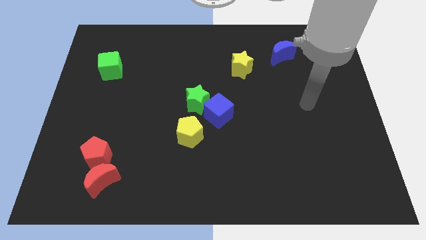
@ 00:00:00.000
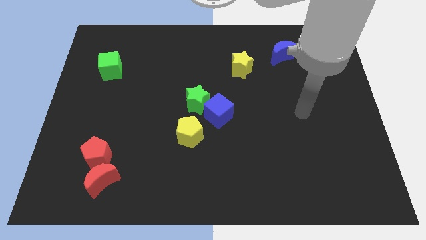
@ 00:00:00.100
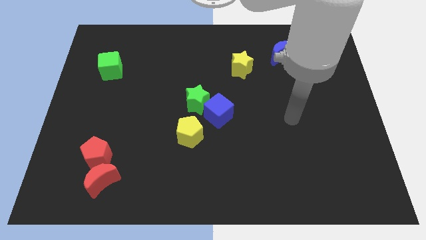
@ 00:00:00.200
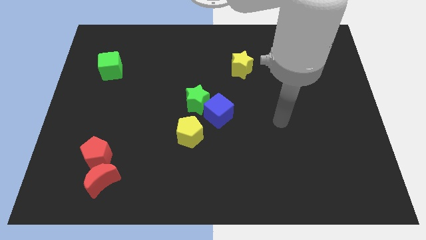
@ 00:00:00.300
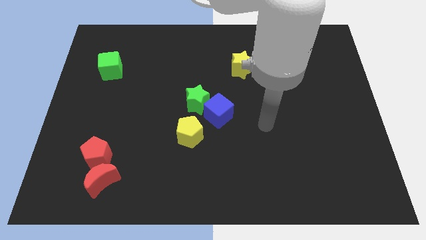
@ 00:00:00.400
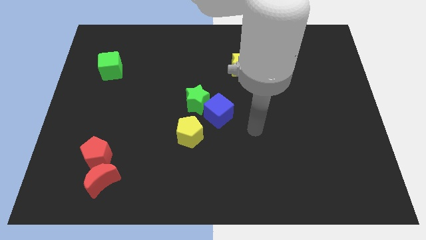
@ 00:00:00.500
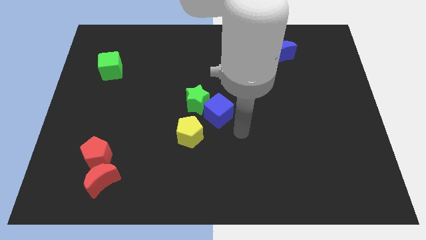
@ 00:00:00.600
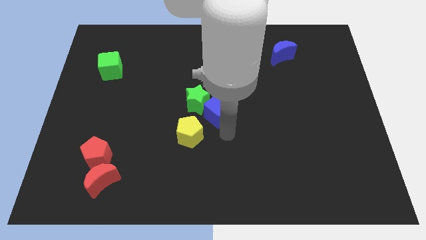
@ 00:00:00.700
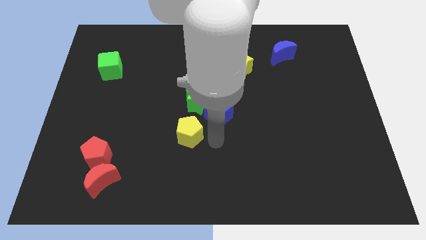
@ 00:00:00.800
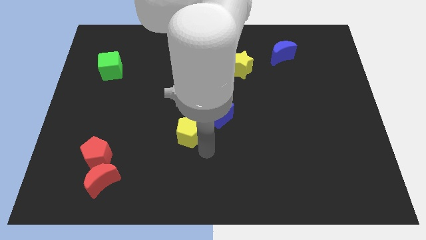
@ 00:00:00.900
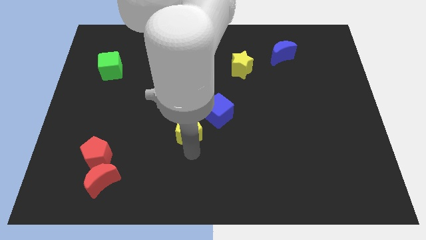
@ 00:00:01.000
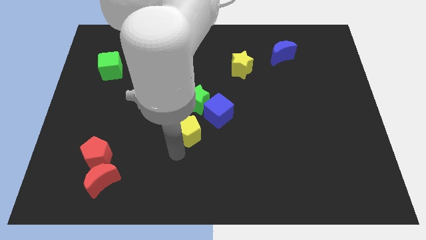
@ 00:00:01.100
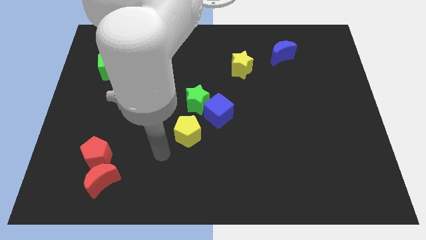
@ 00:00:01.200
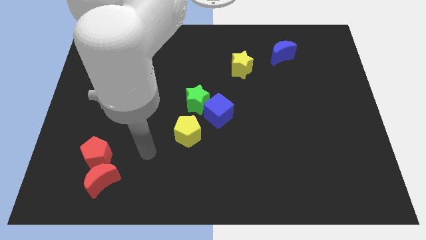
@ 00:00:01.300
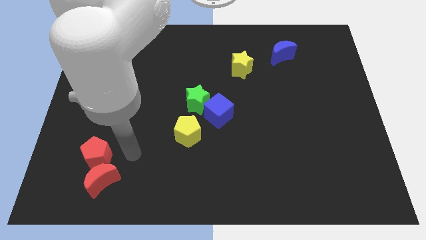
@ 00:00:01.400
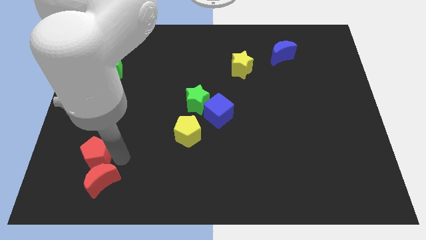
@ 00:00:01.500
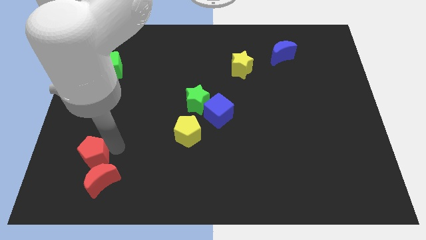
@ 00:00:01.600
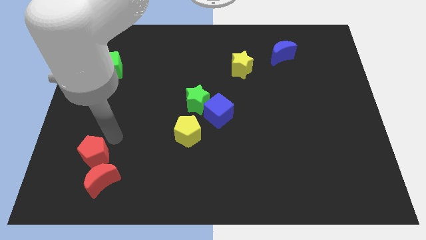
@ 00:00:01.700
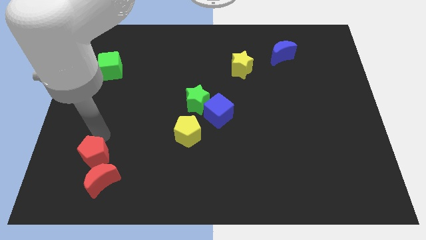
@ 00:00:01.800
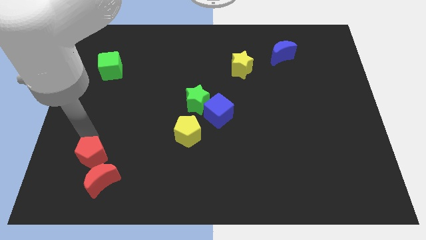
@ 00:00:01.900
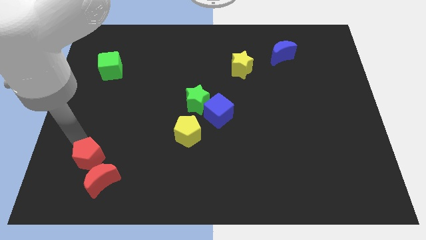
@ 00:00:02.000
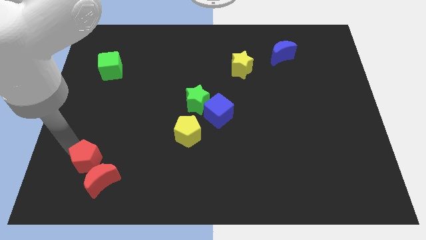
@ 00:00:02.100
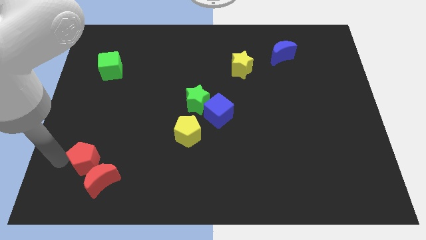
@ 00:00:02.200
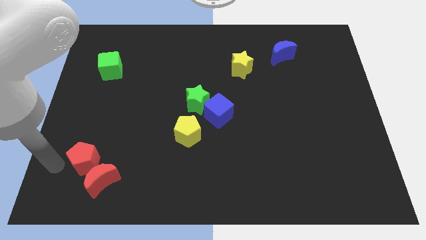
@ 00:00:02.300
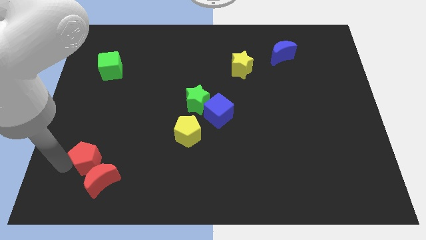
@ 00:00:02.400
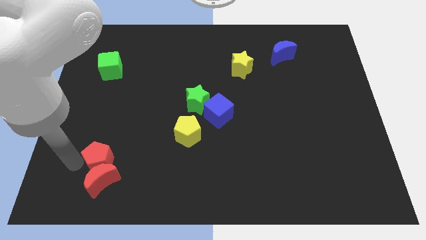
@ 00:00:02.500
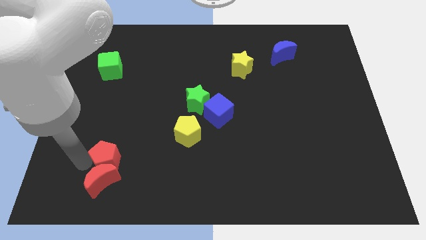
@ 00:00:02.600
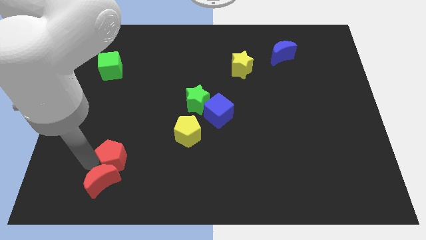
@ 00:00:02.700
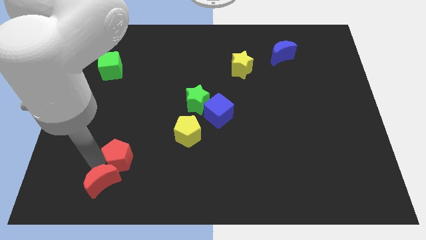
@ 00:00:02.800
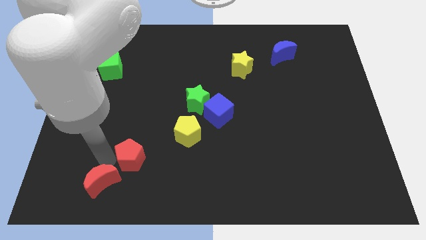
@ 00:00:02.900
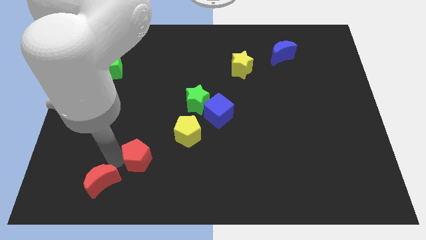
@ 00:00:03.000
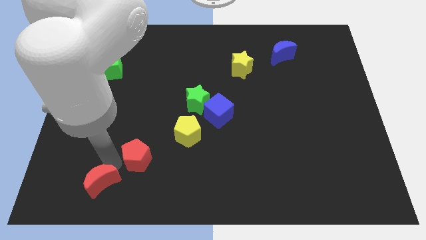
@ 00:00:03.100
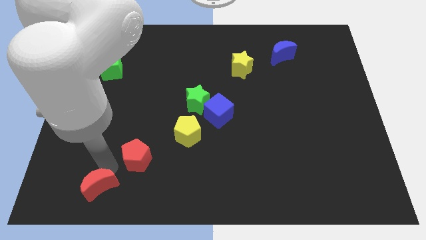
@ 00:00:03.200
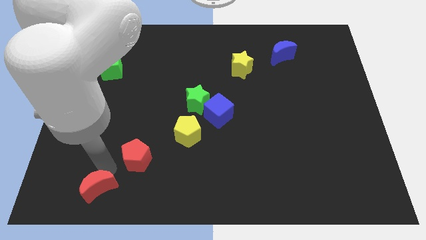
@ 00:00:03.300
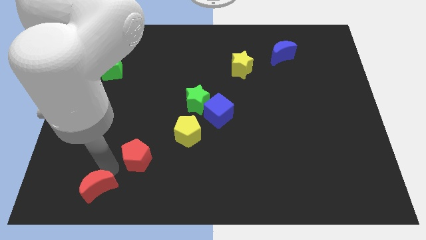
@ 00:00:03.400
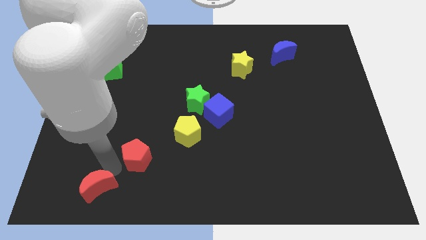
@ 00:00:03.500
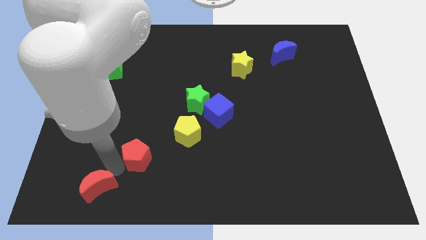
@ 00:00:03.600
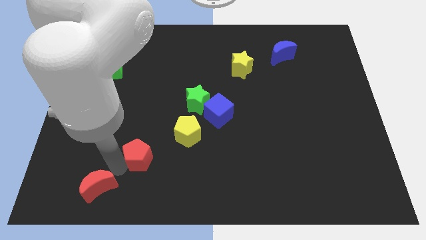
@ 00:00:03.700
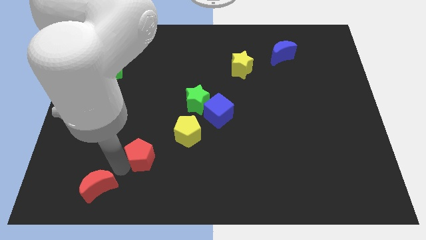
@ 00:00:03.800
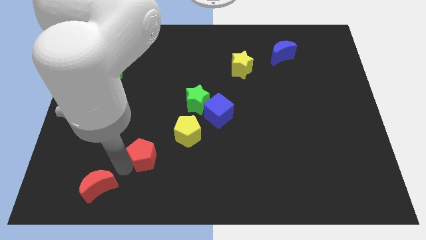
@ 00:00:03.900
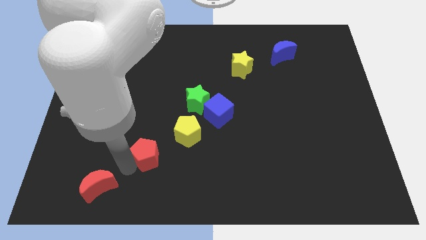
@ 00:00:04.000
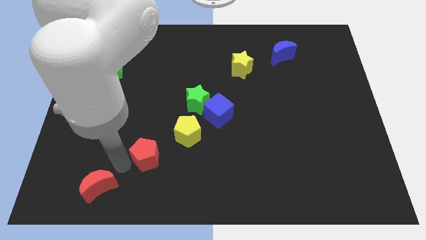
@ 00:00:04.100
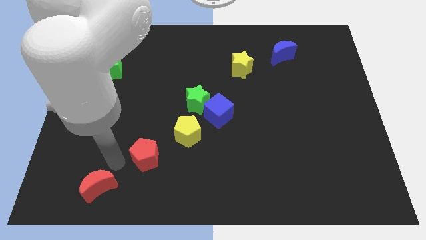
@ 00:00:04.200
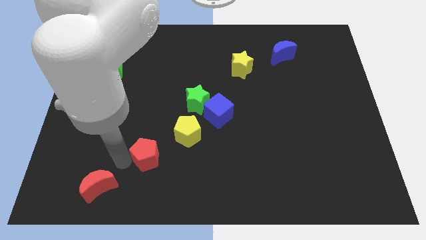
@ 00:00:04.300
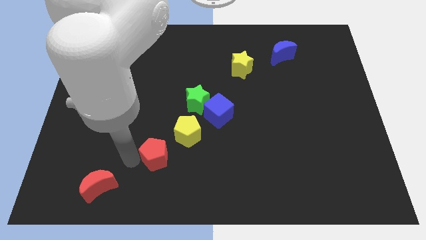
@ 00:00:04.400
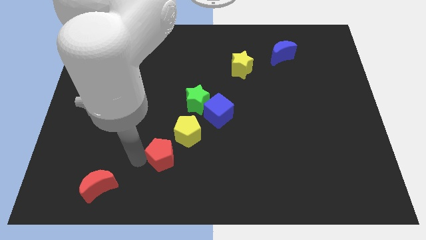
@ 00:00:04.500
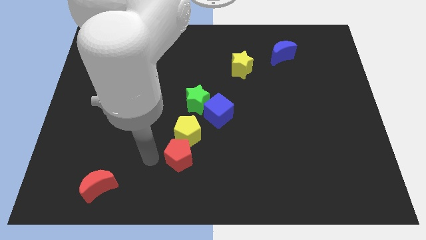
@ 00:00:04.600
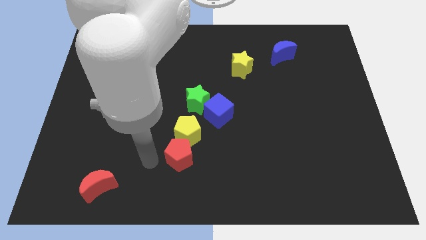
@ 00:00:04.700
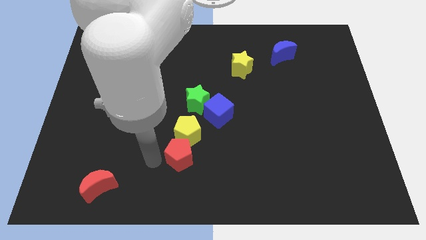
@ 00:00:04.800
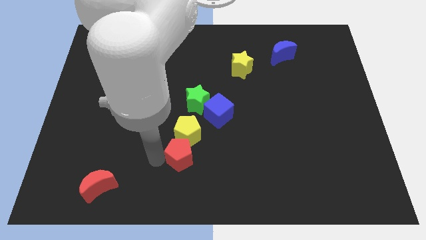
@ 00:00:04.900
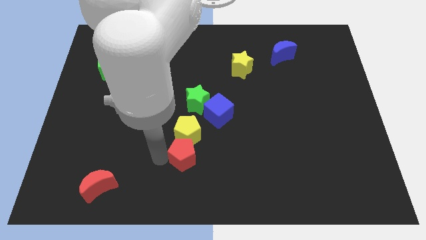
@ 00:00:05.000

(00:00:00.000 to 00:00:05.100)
slide the red pentagon to the bottom right side of the yellow pentagon

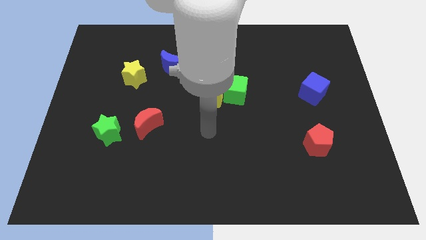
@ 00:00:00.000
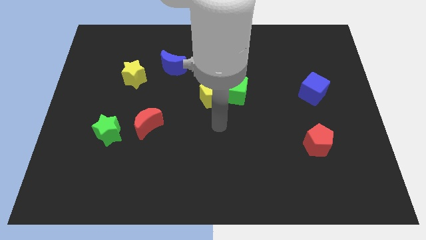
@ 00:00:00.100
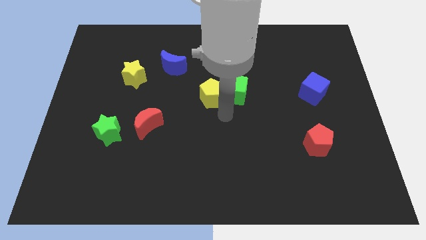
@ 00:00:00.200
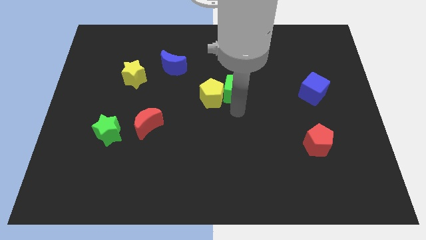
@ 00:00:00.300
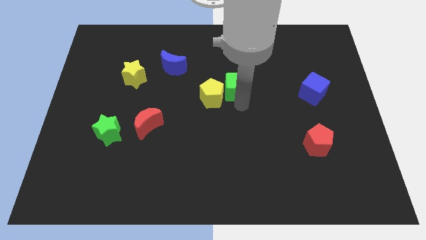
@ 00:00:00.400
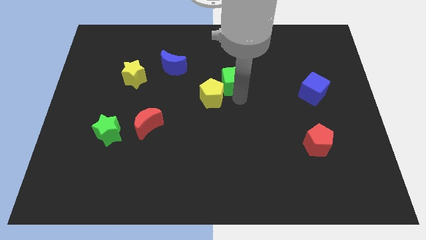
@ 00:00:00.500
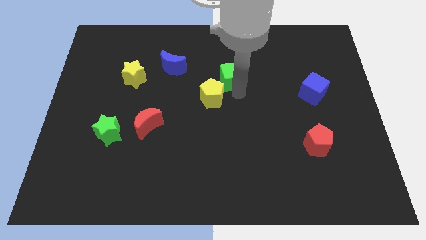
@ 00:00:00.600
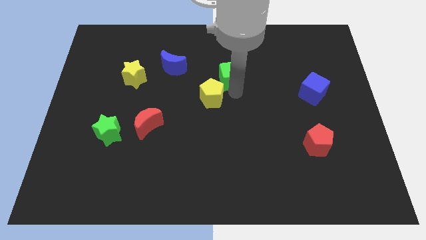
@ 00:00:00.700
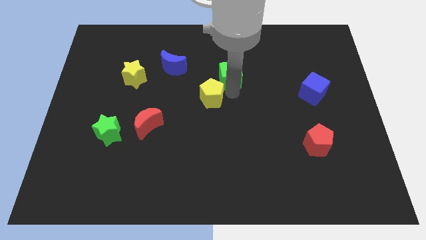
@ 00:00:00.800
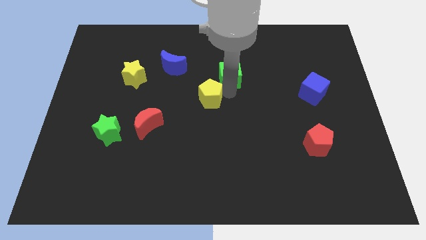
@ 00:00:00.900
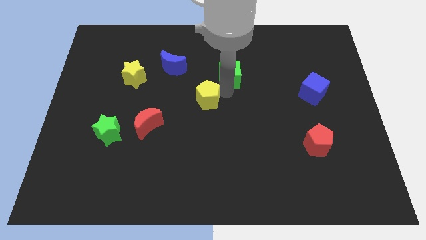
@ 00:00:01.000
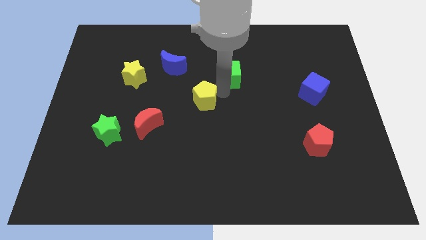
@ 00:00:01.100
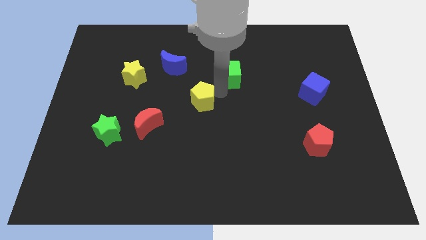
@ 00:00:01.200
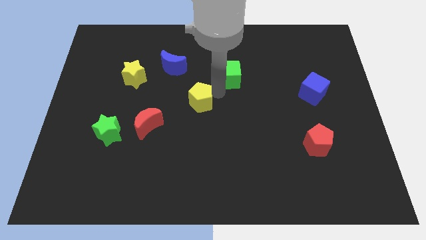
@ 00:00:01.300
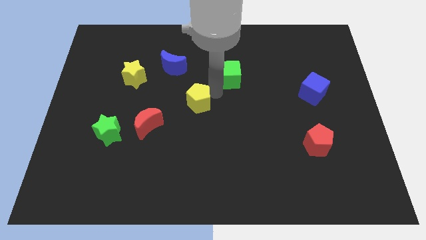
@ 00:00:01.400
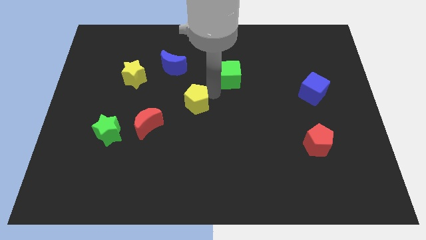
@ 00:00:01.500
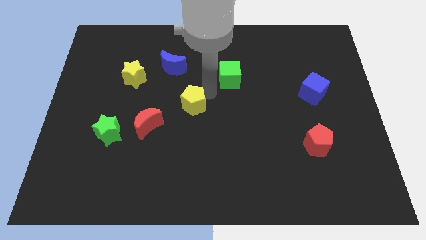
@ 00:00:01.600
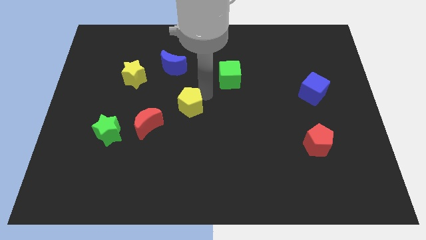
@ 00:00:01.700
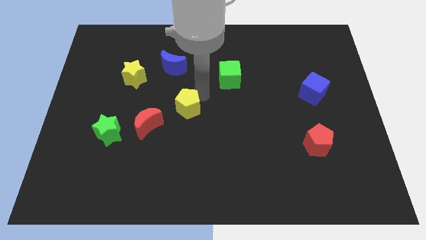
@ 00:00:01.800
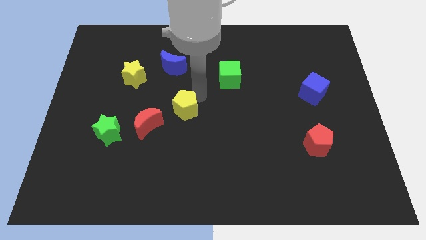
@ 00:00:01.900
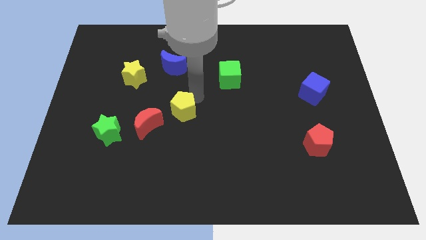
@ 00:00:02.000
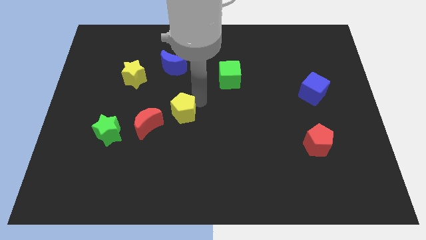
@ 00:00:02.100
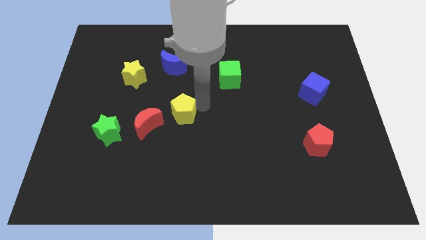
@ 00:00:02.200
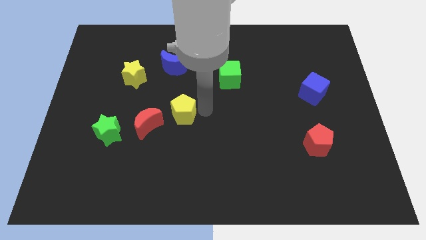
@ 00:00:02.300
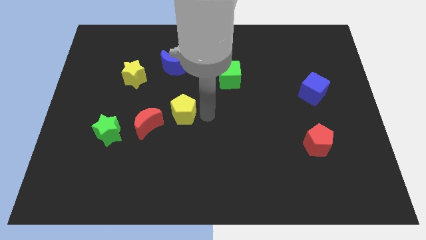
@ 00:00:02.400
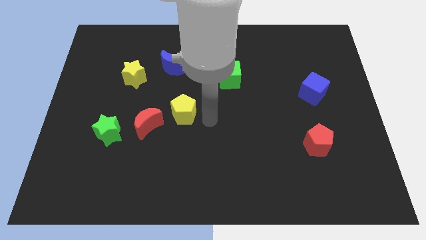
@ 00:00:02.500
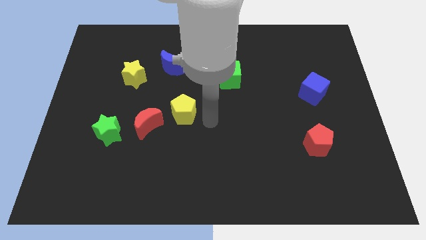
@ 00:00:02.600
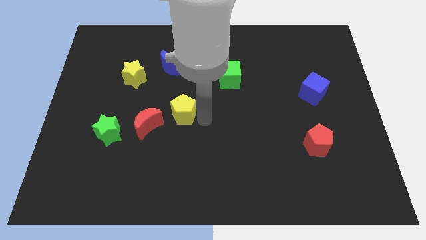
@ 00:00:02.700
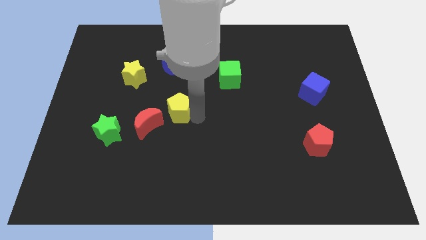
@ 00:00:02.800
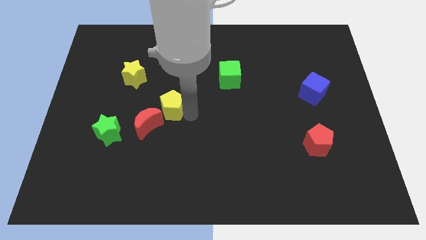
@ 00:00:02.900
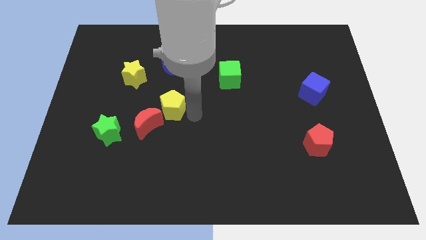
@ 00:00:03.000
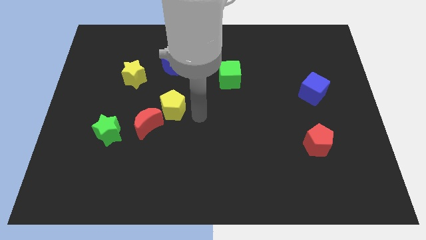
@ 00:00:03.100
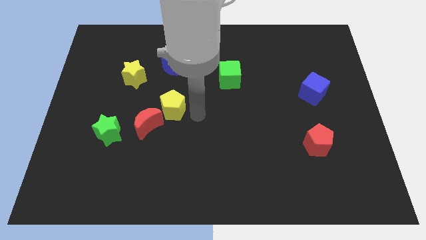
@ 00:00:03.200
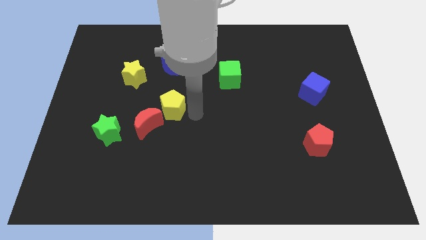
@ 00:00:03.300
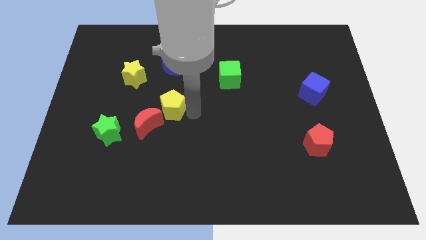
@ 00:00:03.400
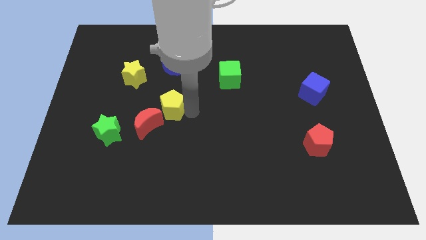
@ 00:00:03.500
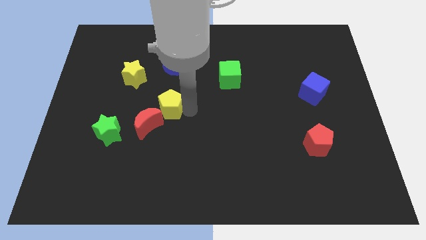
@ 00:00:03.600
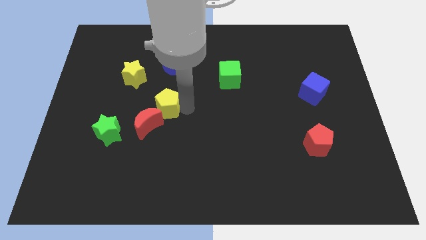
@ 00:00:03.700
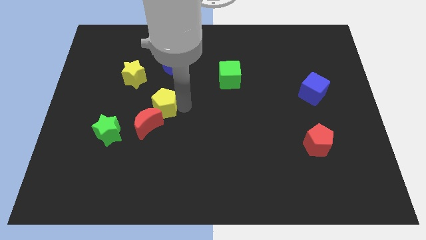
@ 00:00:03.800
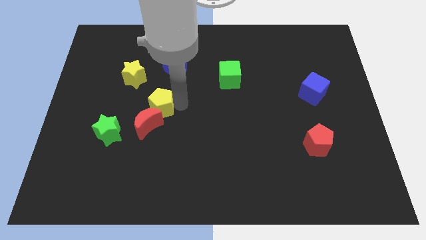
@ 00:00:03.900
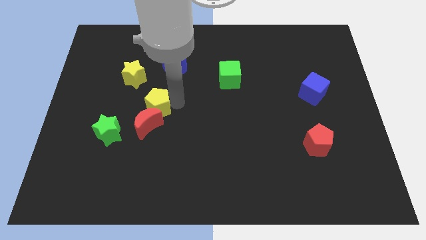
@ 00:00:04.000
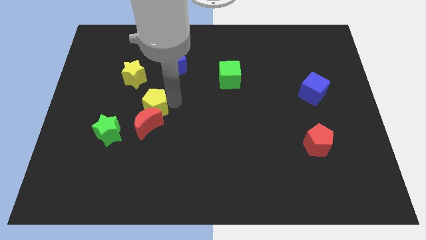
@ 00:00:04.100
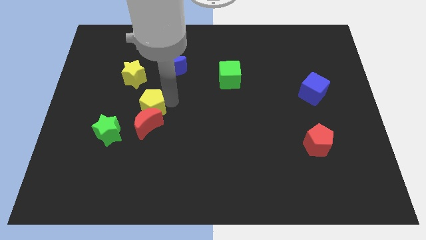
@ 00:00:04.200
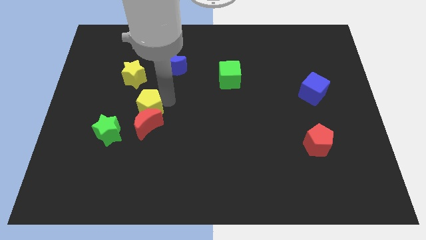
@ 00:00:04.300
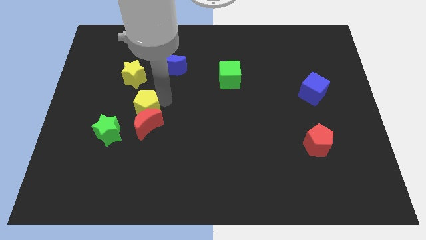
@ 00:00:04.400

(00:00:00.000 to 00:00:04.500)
move the yellow pentagon to the bottom side of the yellow star
